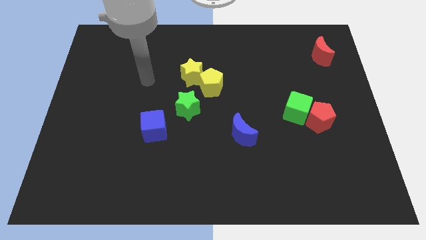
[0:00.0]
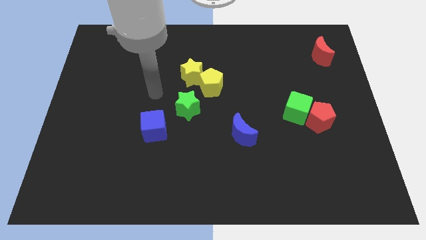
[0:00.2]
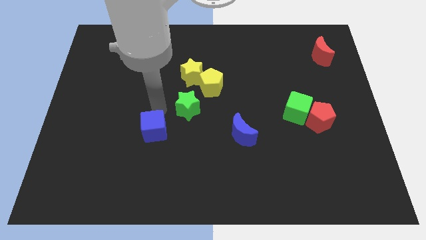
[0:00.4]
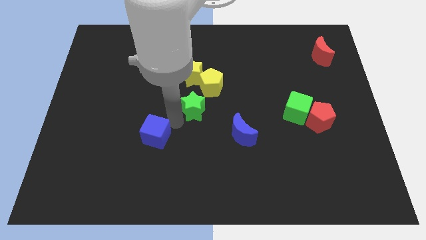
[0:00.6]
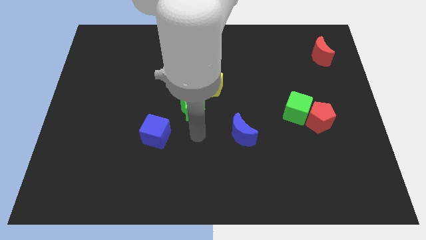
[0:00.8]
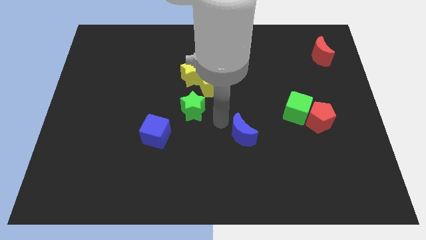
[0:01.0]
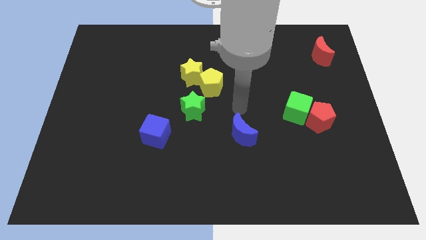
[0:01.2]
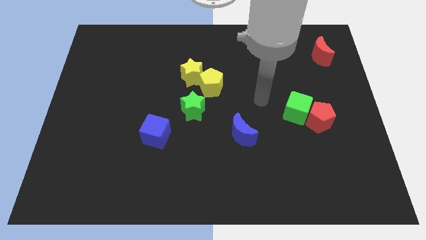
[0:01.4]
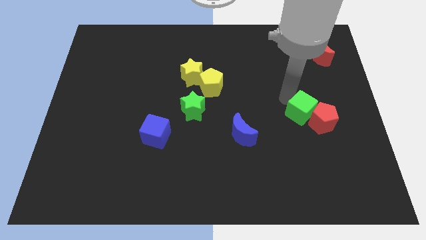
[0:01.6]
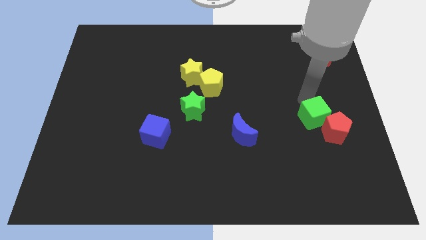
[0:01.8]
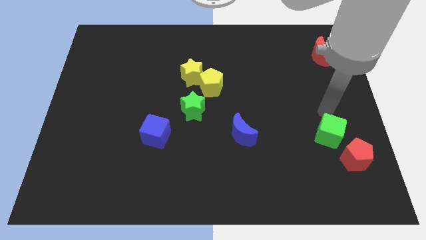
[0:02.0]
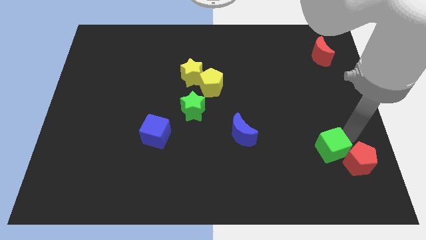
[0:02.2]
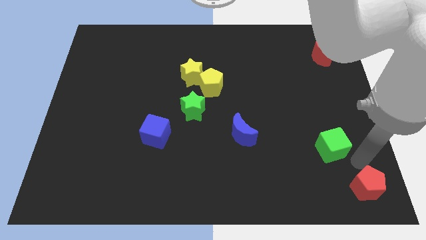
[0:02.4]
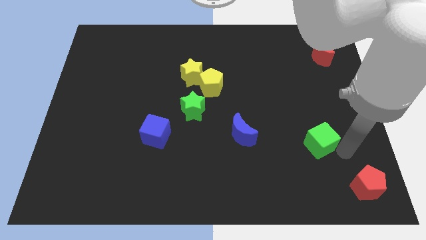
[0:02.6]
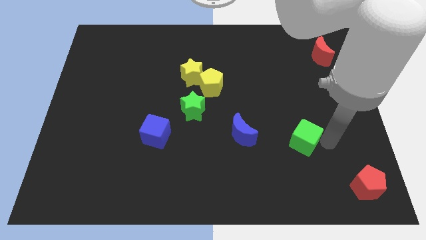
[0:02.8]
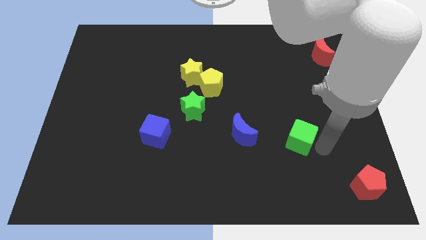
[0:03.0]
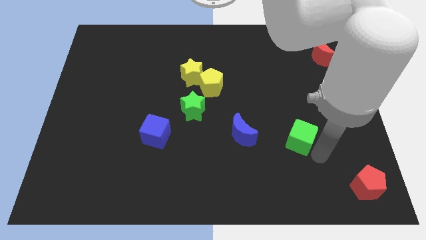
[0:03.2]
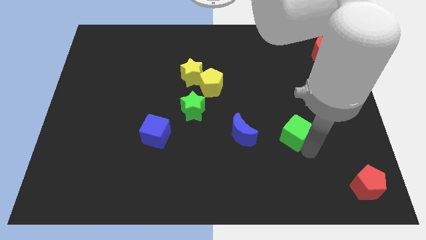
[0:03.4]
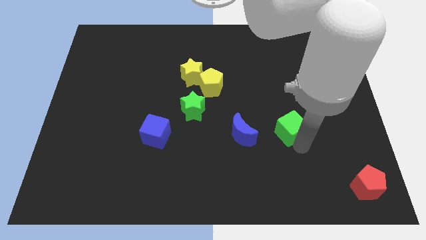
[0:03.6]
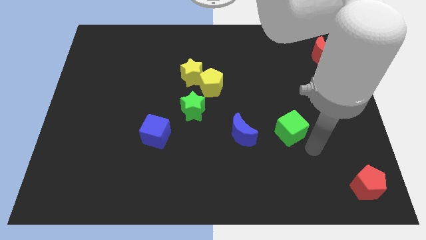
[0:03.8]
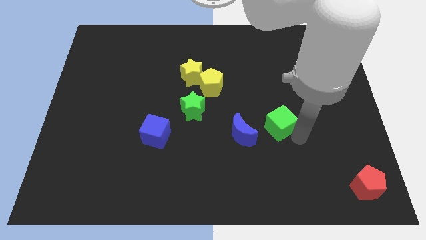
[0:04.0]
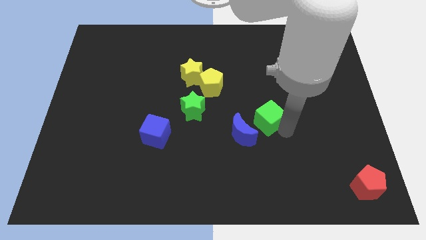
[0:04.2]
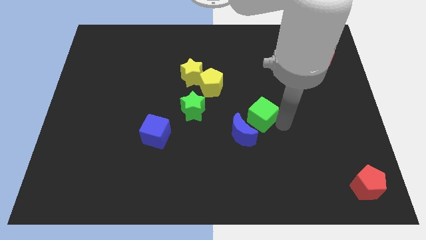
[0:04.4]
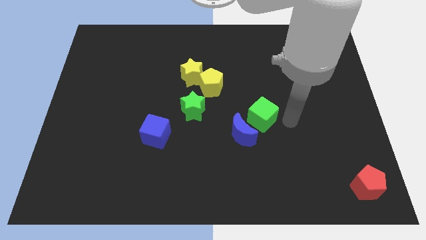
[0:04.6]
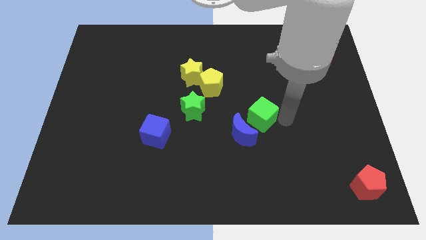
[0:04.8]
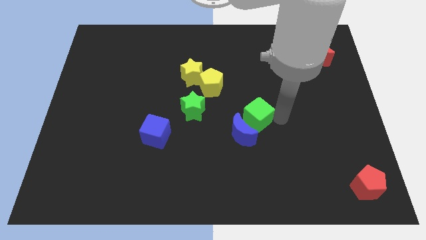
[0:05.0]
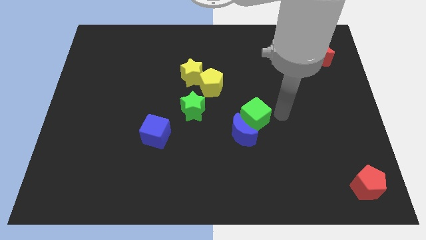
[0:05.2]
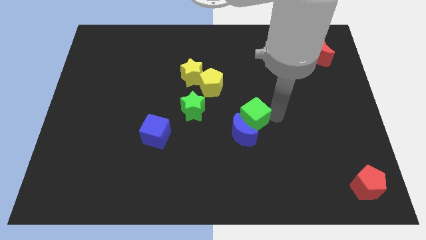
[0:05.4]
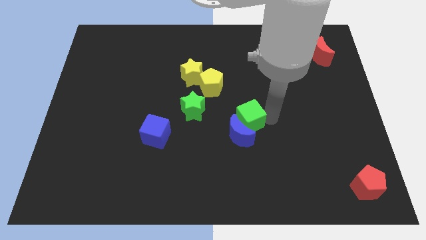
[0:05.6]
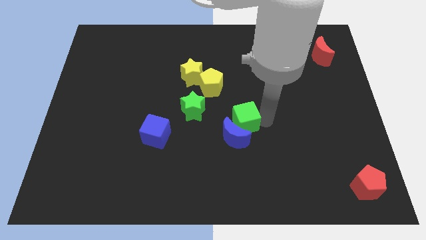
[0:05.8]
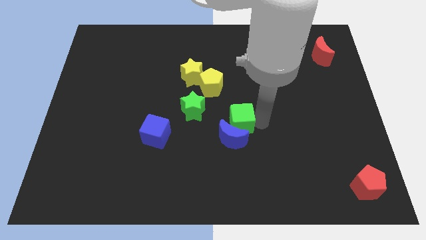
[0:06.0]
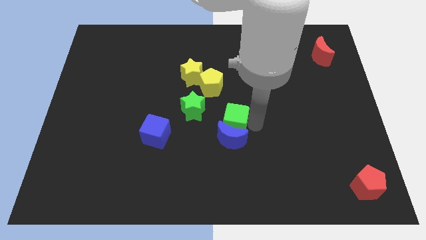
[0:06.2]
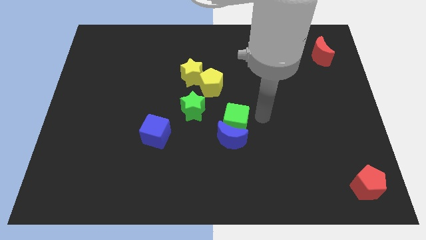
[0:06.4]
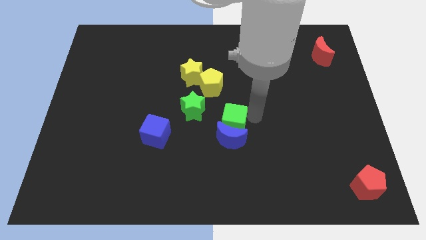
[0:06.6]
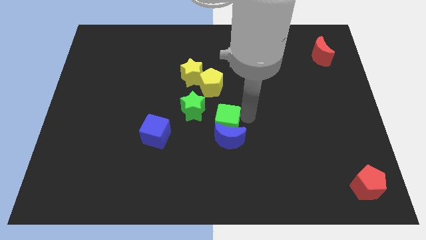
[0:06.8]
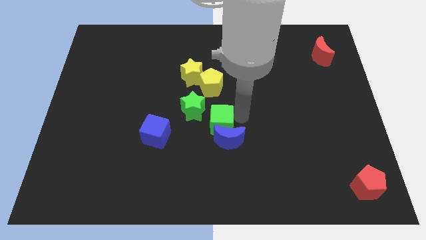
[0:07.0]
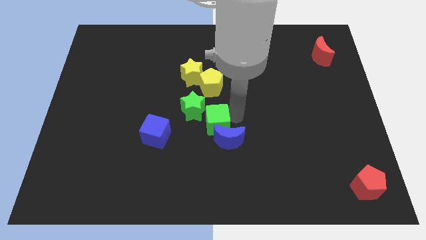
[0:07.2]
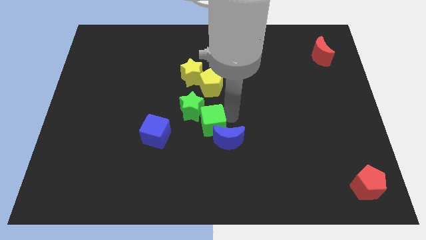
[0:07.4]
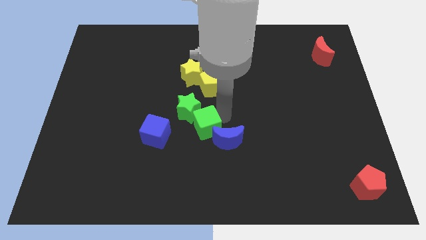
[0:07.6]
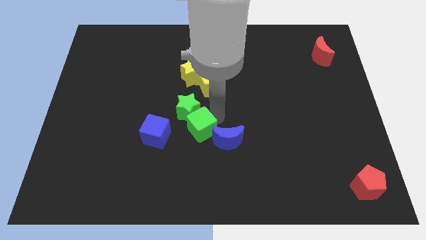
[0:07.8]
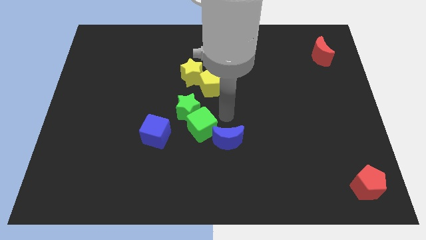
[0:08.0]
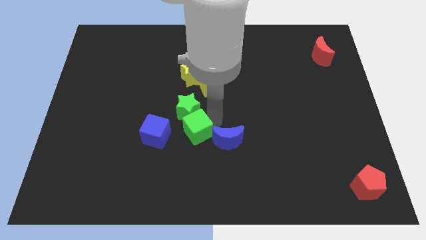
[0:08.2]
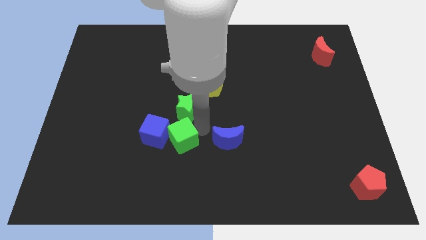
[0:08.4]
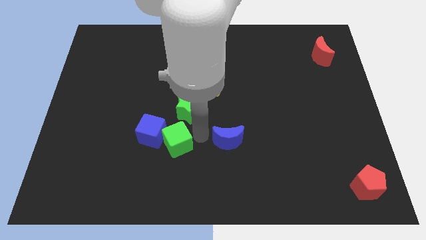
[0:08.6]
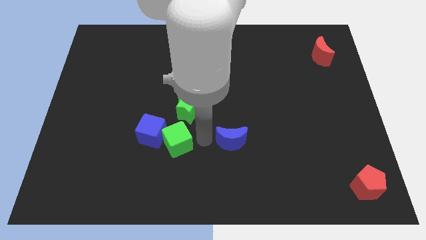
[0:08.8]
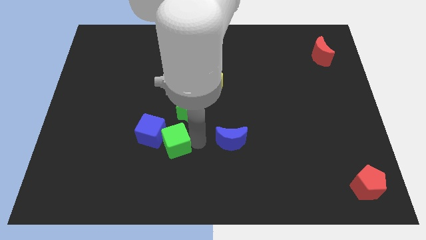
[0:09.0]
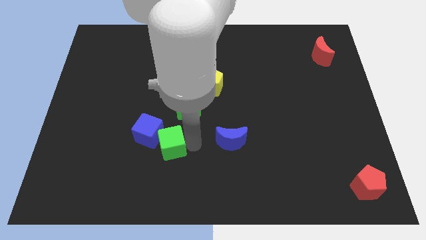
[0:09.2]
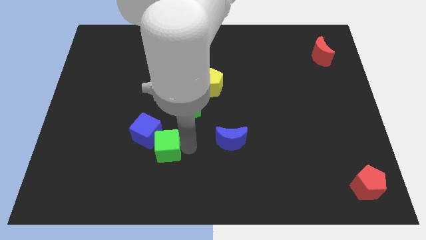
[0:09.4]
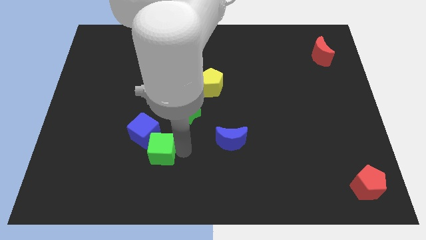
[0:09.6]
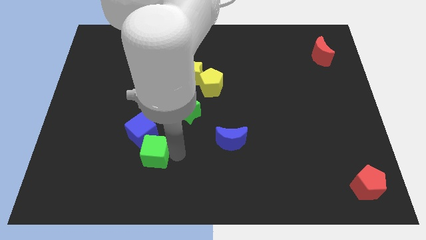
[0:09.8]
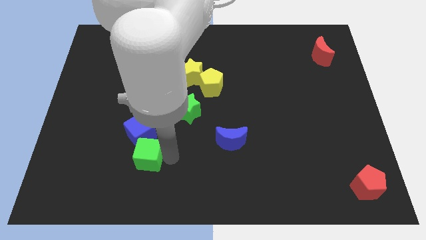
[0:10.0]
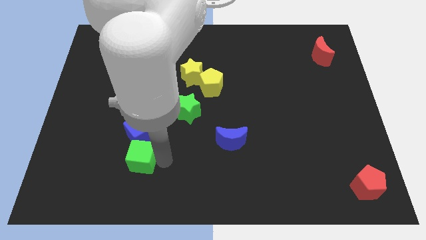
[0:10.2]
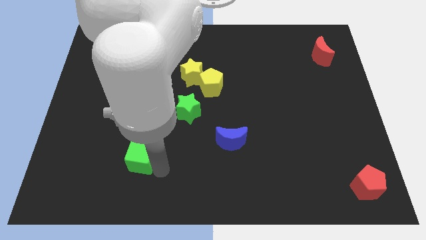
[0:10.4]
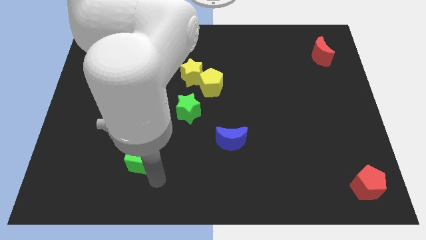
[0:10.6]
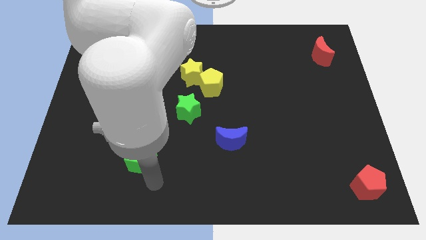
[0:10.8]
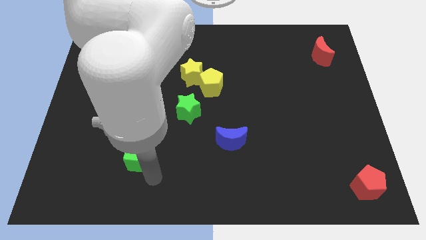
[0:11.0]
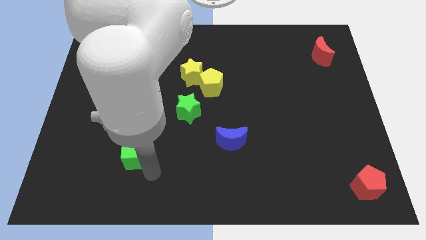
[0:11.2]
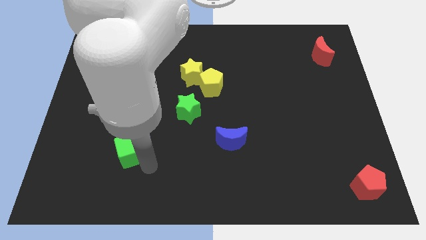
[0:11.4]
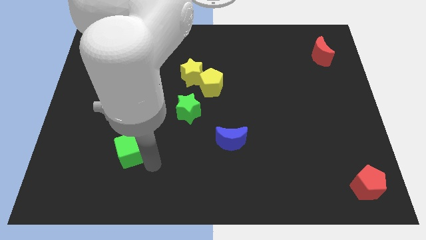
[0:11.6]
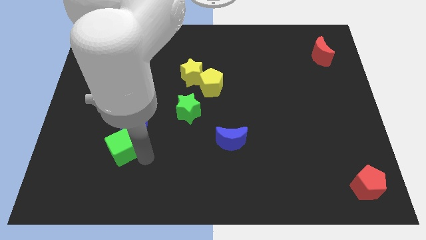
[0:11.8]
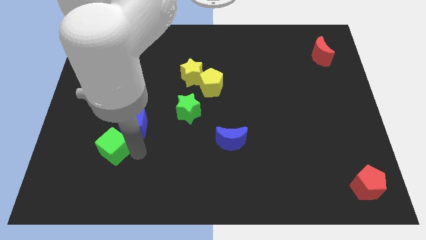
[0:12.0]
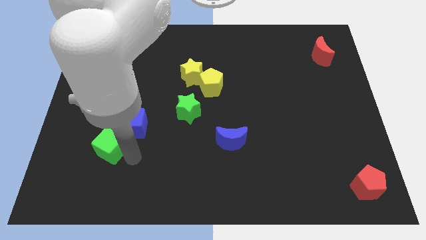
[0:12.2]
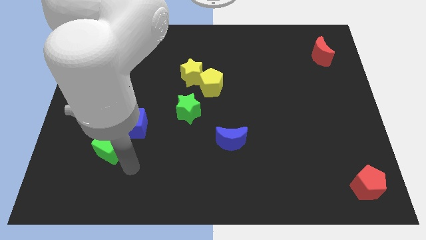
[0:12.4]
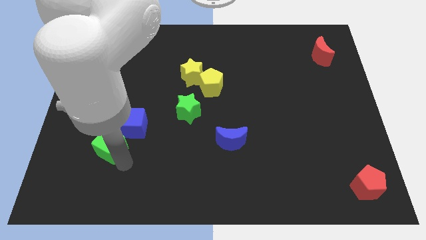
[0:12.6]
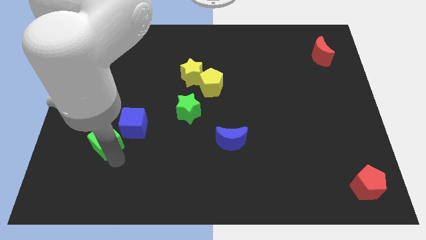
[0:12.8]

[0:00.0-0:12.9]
put the green cube left of the blue cube

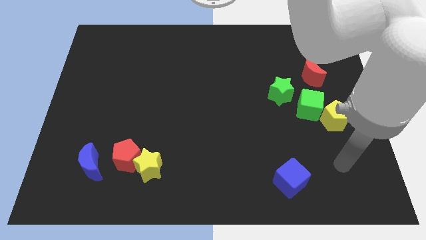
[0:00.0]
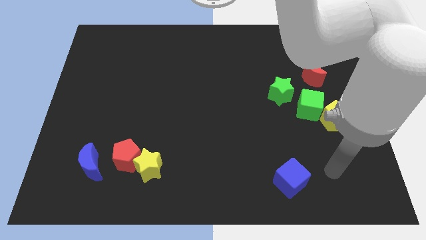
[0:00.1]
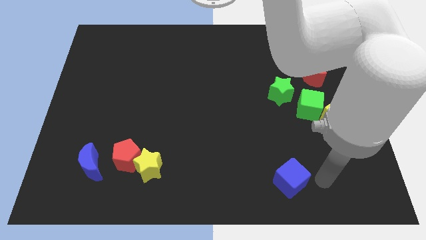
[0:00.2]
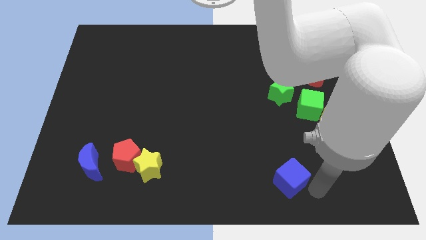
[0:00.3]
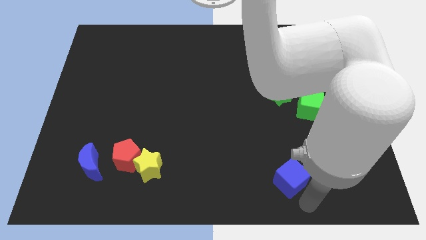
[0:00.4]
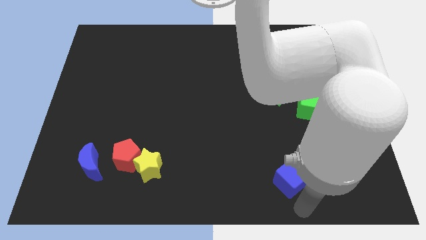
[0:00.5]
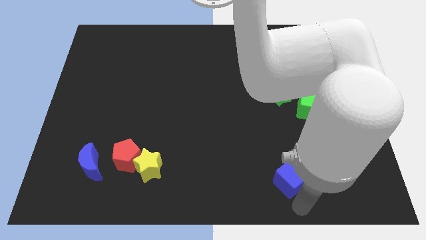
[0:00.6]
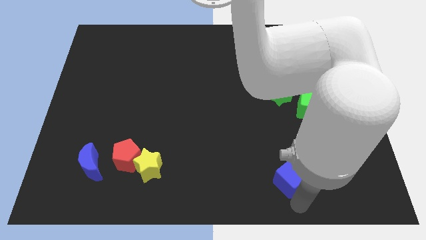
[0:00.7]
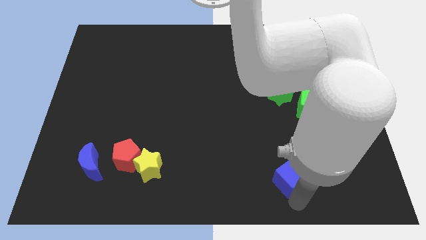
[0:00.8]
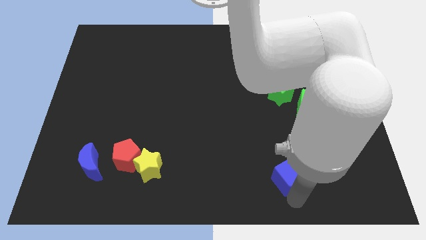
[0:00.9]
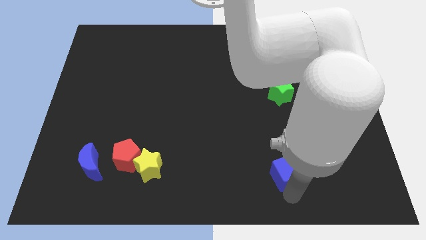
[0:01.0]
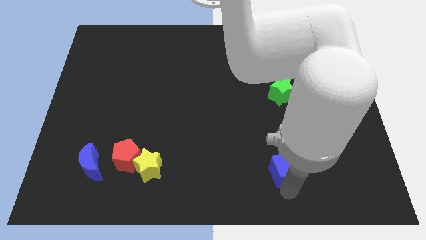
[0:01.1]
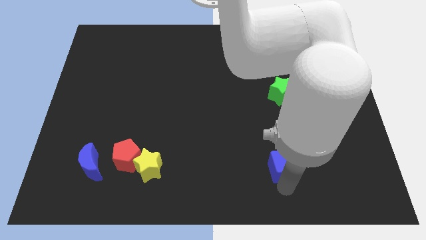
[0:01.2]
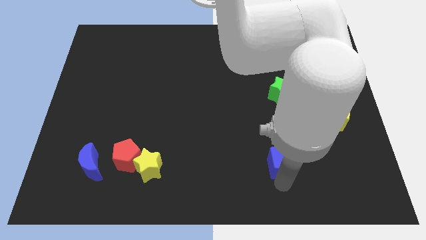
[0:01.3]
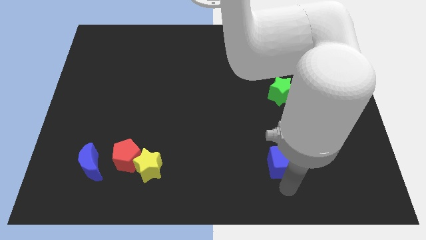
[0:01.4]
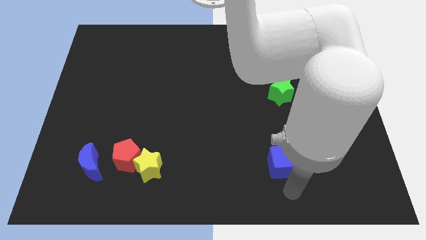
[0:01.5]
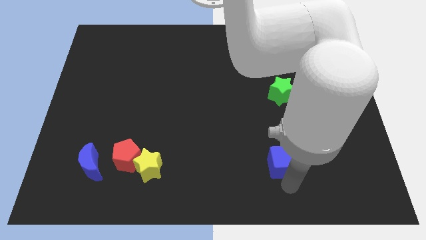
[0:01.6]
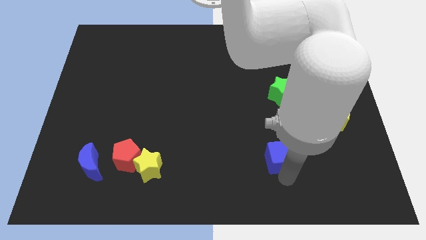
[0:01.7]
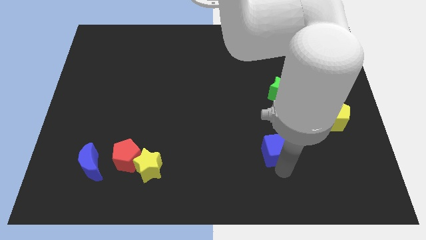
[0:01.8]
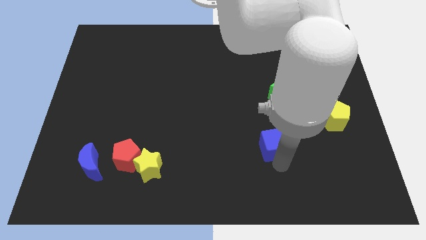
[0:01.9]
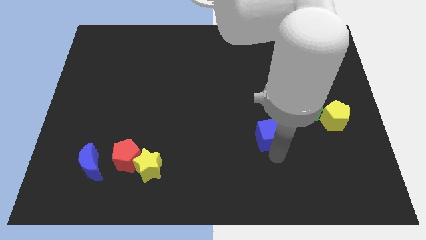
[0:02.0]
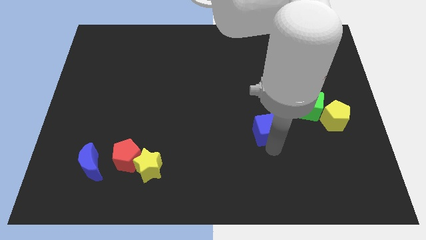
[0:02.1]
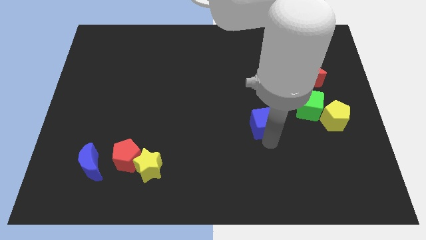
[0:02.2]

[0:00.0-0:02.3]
slide the blue cube to the bottom left of the green star
